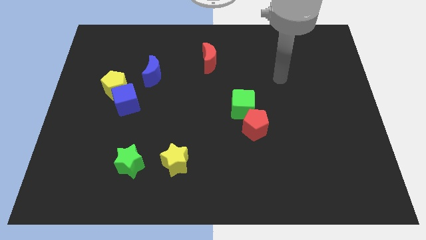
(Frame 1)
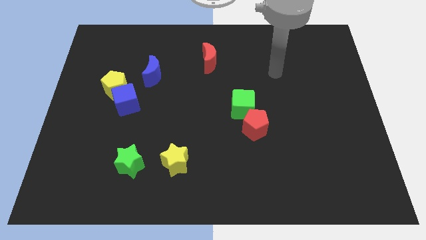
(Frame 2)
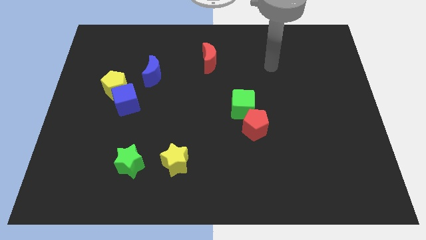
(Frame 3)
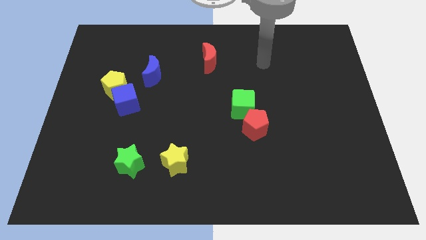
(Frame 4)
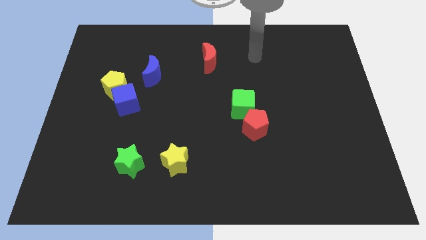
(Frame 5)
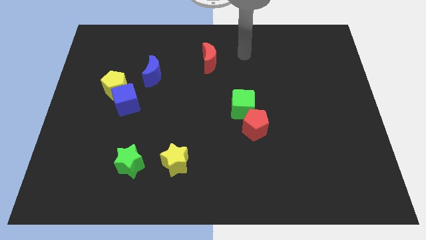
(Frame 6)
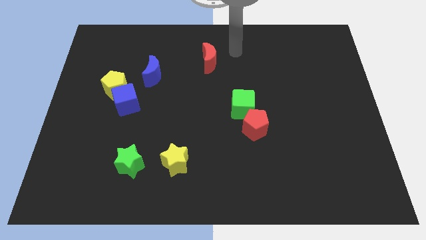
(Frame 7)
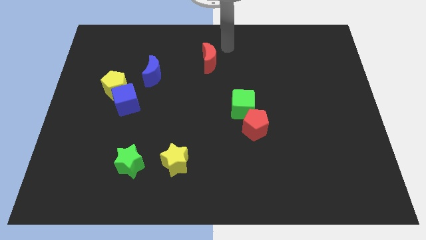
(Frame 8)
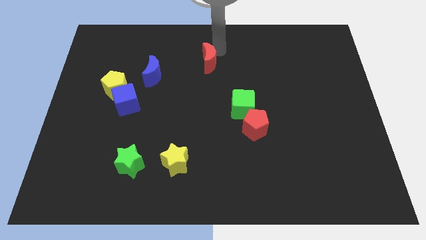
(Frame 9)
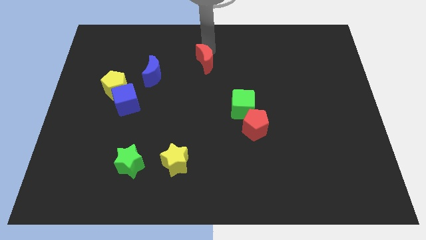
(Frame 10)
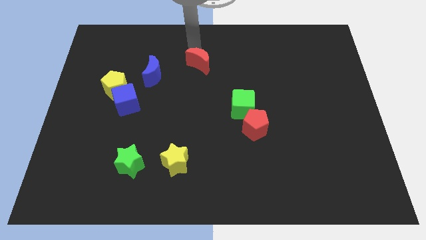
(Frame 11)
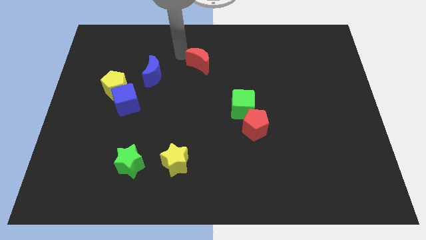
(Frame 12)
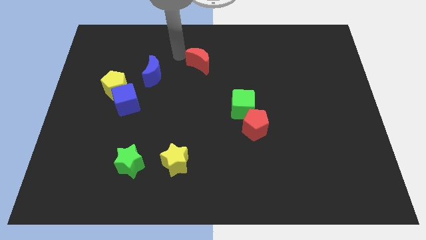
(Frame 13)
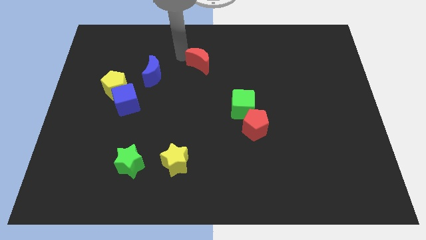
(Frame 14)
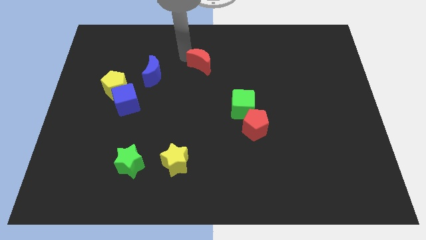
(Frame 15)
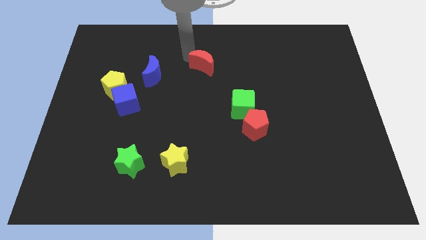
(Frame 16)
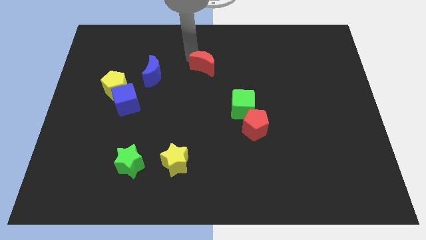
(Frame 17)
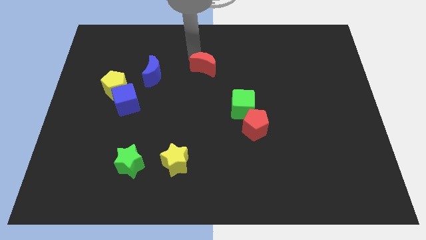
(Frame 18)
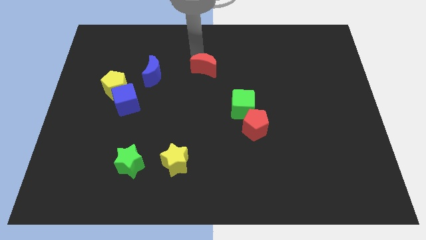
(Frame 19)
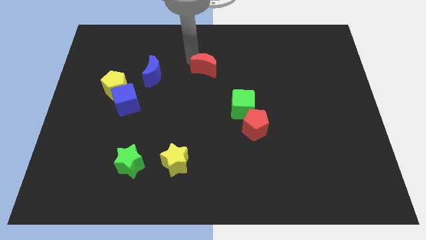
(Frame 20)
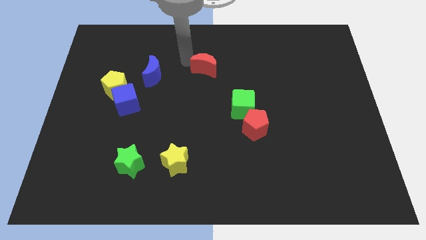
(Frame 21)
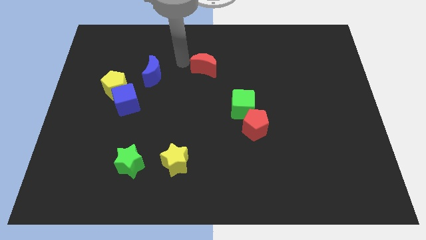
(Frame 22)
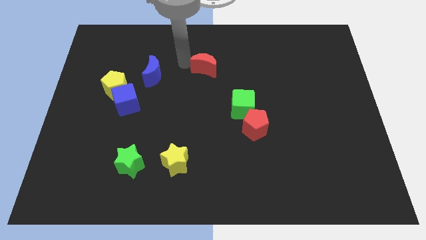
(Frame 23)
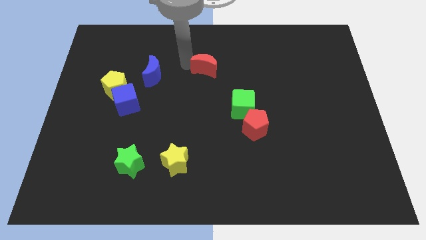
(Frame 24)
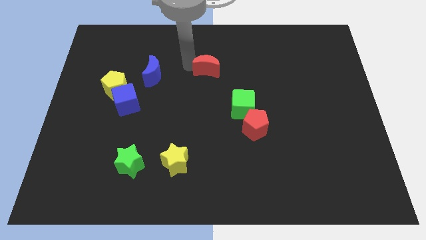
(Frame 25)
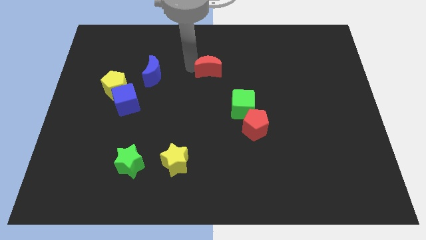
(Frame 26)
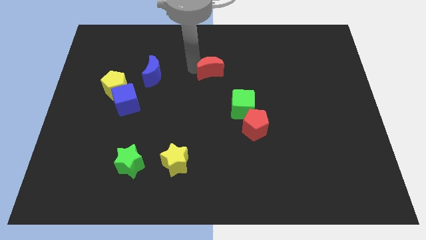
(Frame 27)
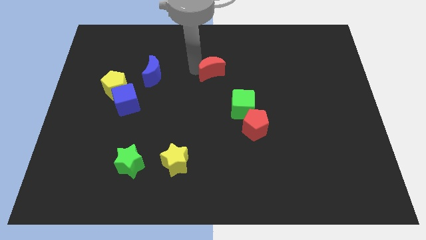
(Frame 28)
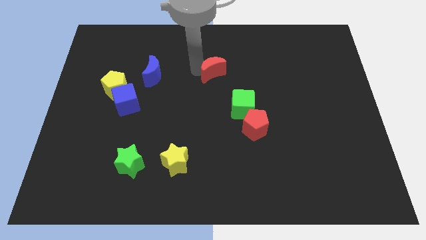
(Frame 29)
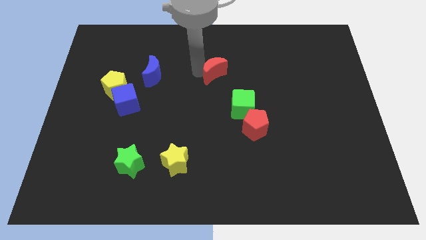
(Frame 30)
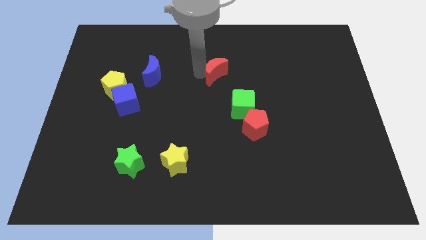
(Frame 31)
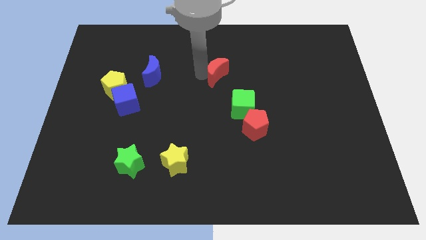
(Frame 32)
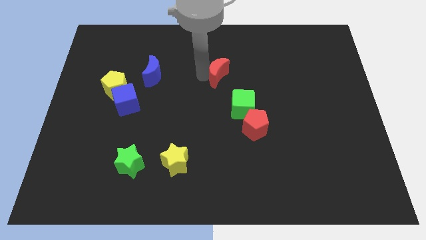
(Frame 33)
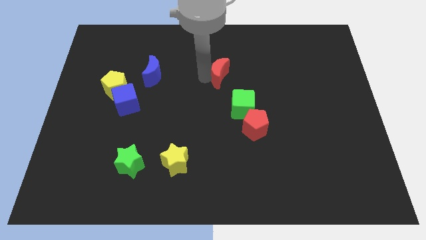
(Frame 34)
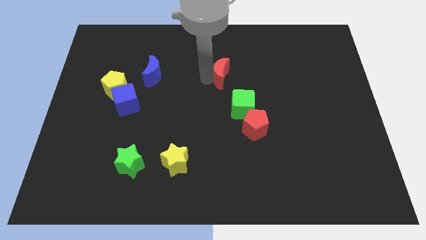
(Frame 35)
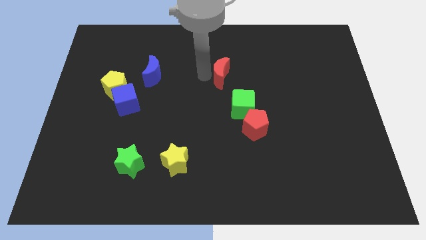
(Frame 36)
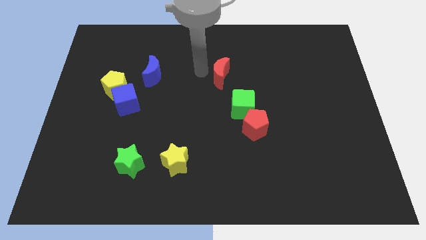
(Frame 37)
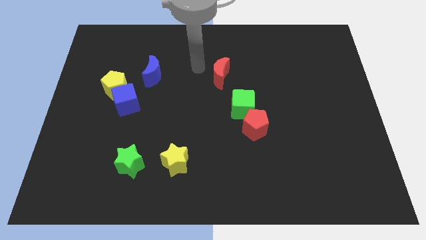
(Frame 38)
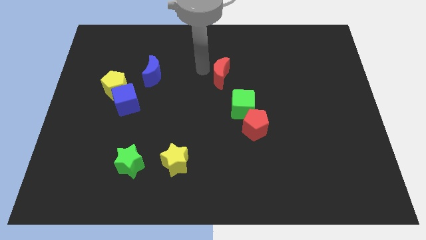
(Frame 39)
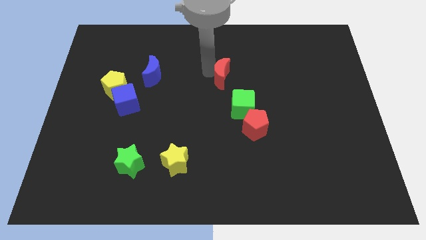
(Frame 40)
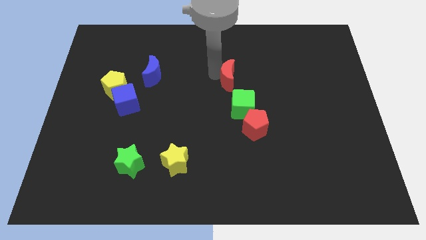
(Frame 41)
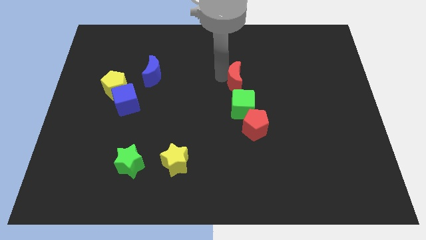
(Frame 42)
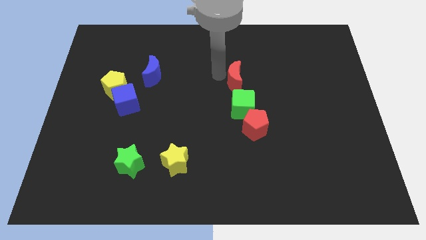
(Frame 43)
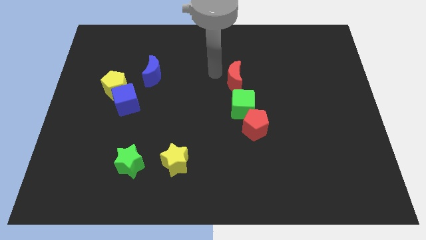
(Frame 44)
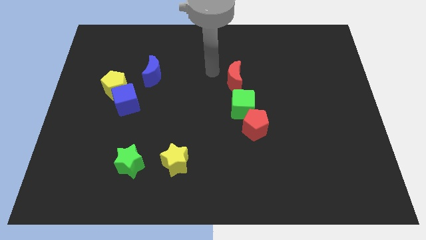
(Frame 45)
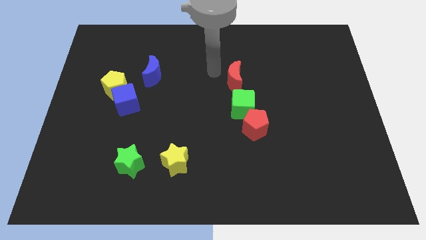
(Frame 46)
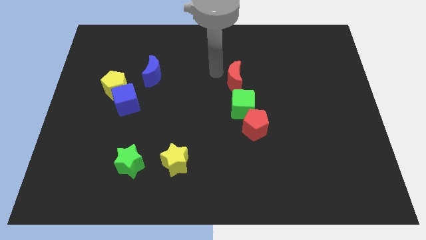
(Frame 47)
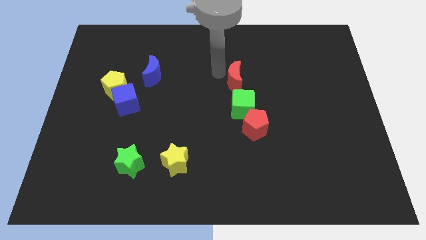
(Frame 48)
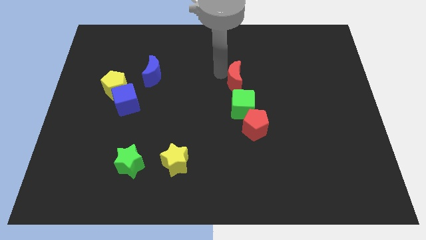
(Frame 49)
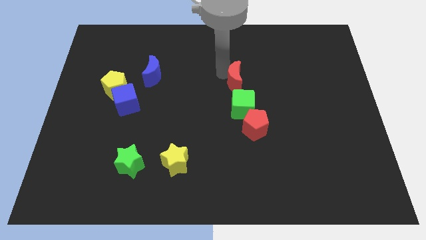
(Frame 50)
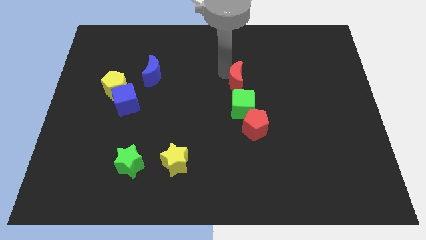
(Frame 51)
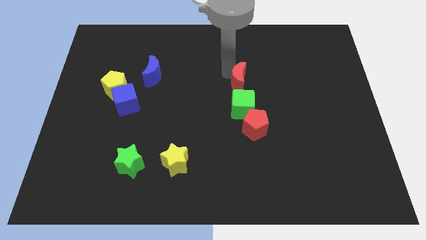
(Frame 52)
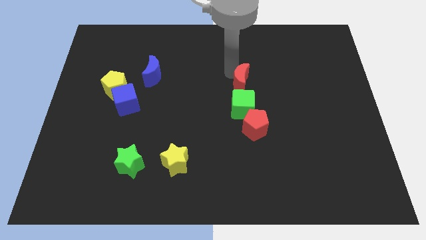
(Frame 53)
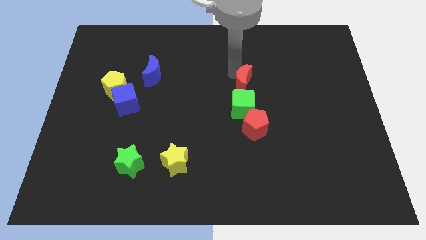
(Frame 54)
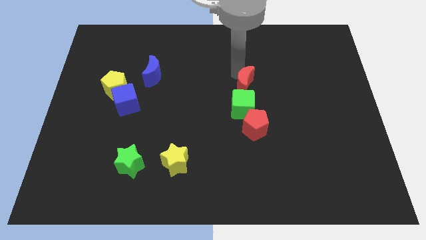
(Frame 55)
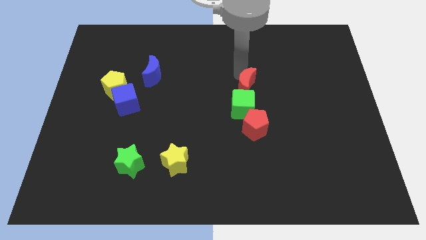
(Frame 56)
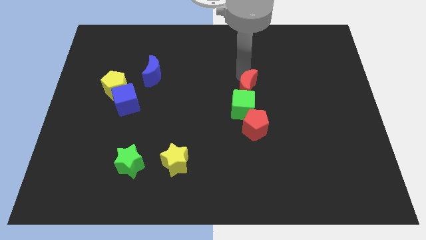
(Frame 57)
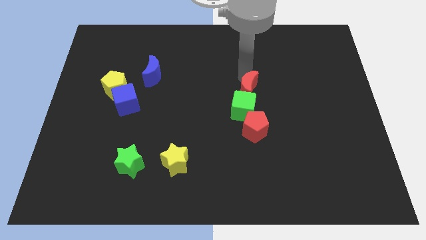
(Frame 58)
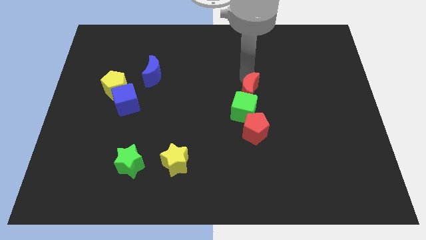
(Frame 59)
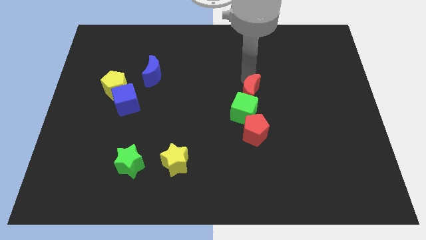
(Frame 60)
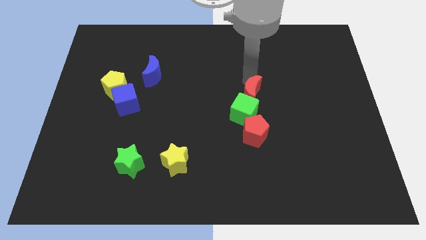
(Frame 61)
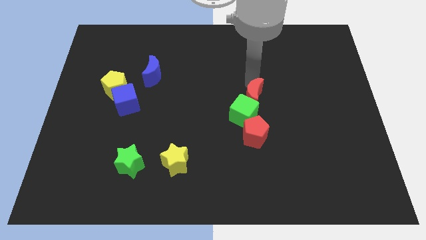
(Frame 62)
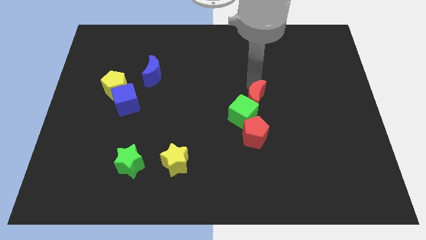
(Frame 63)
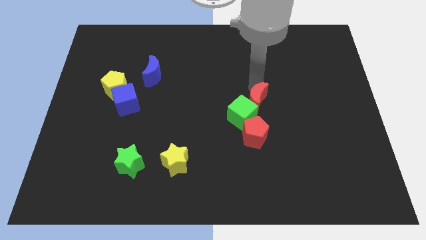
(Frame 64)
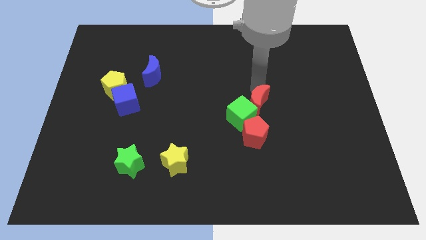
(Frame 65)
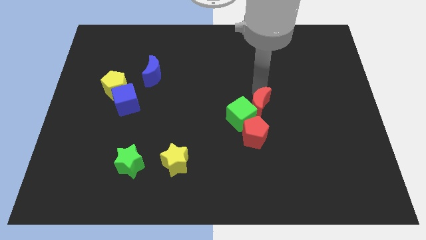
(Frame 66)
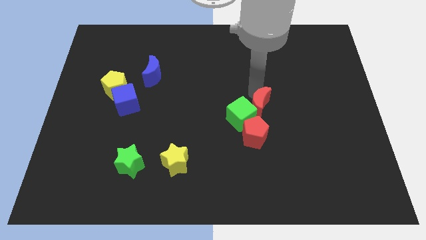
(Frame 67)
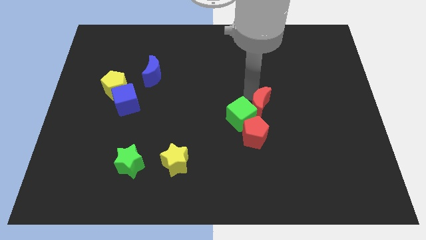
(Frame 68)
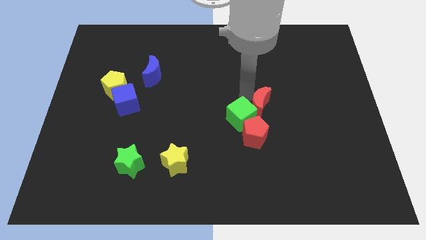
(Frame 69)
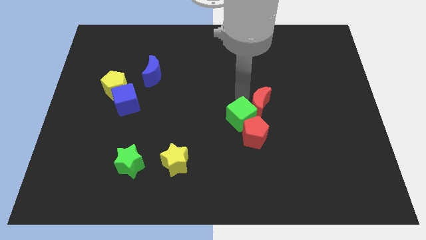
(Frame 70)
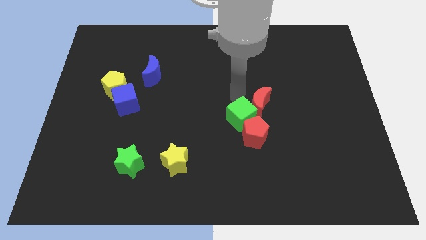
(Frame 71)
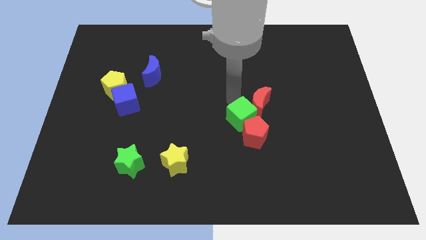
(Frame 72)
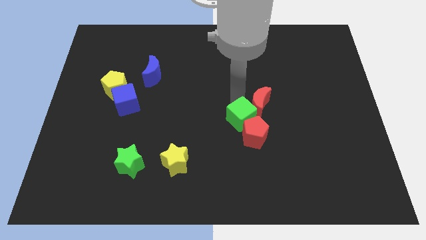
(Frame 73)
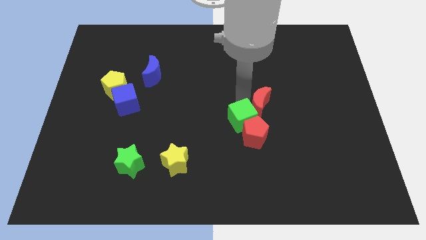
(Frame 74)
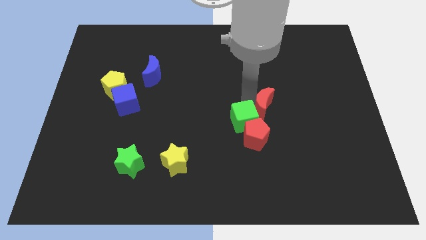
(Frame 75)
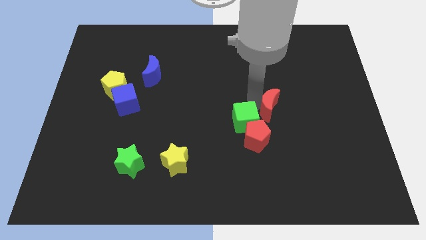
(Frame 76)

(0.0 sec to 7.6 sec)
slide the red moon downwards and to the right diagonally

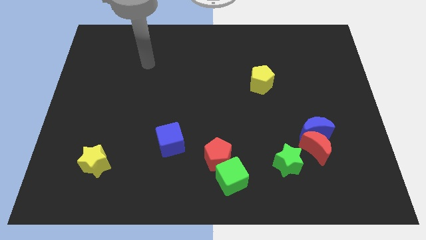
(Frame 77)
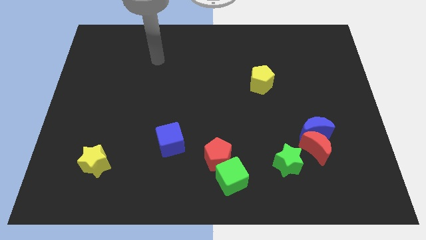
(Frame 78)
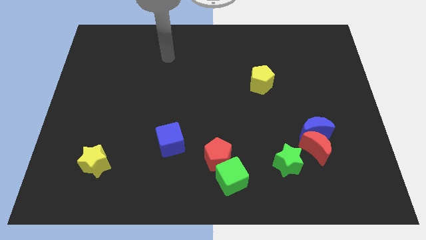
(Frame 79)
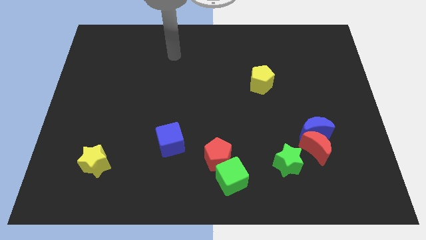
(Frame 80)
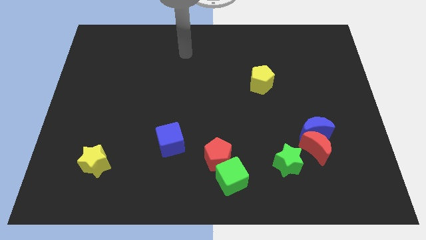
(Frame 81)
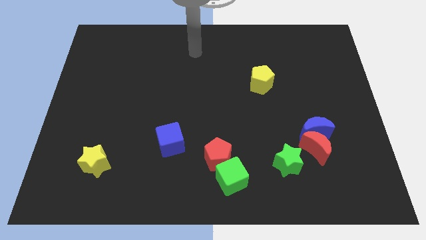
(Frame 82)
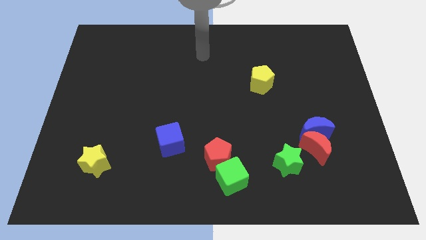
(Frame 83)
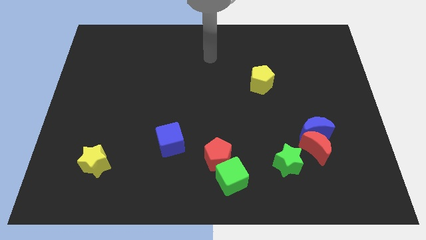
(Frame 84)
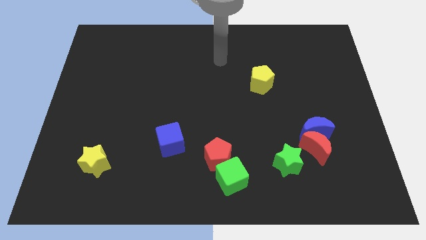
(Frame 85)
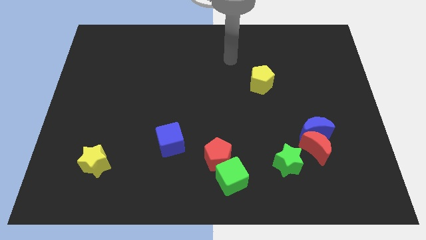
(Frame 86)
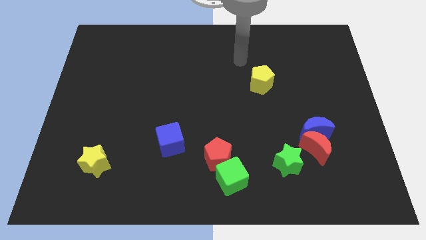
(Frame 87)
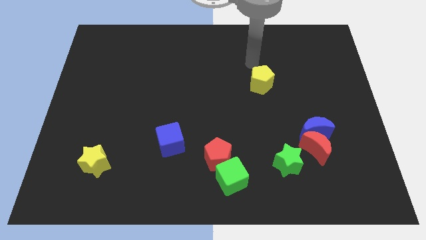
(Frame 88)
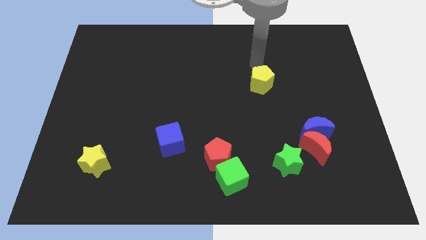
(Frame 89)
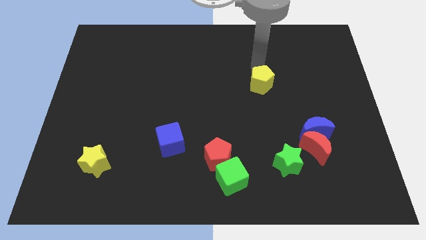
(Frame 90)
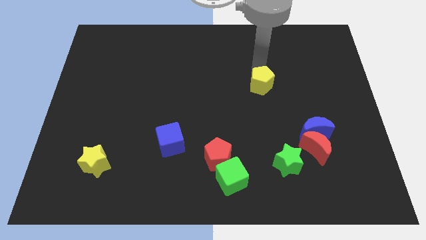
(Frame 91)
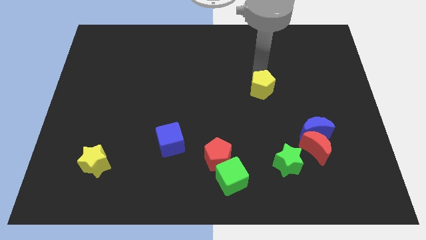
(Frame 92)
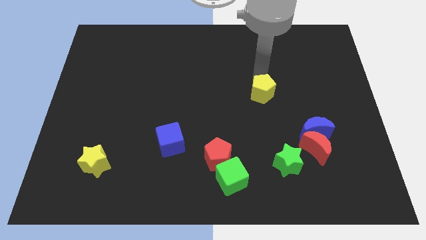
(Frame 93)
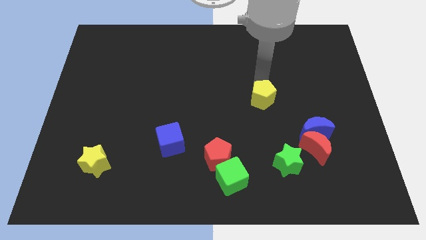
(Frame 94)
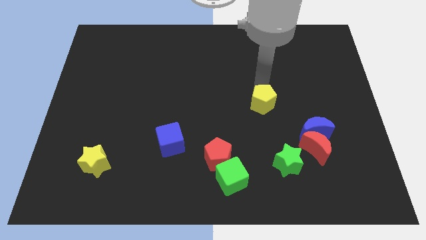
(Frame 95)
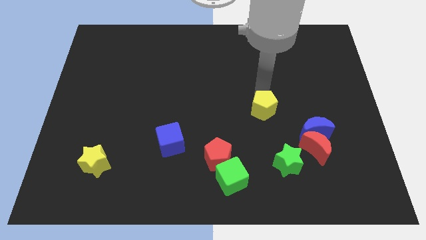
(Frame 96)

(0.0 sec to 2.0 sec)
slide the yellow pentagon somewhat down
